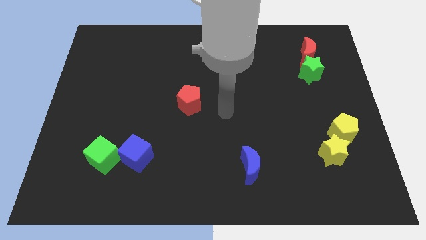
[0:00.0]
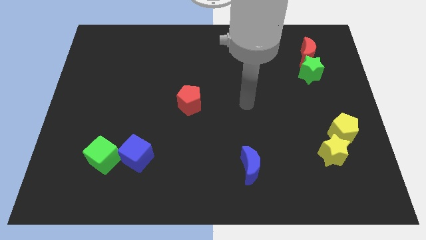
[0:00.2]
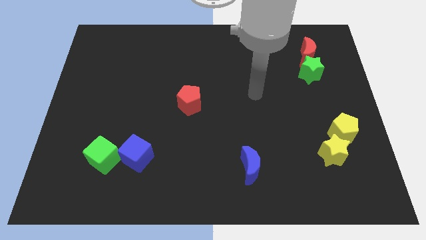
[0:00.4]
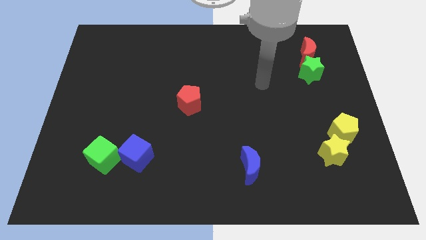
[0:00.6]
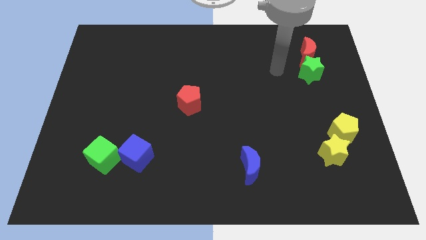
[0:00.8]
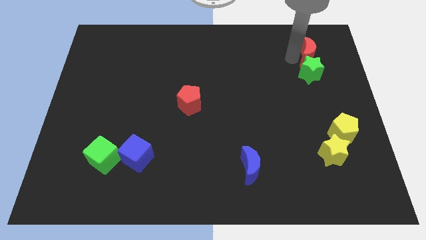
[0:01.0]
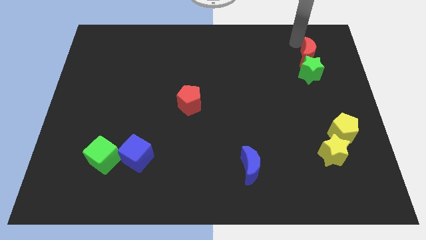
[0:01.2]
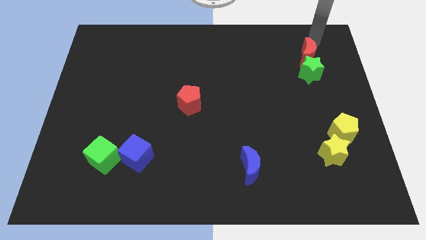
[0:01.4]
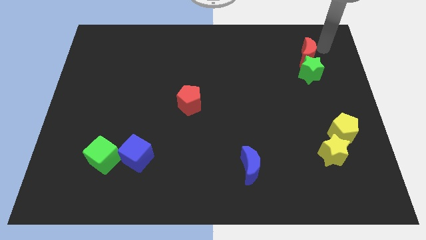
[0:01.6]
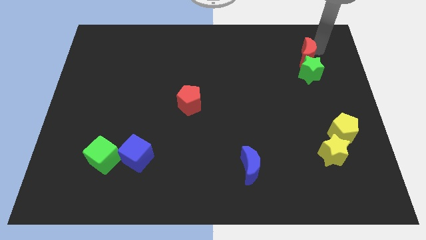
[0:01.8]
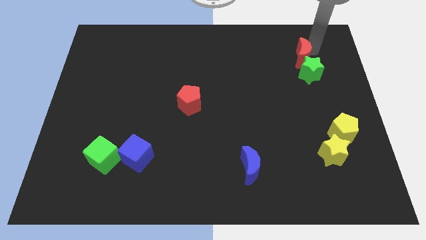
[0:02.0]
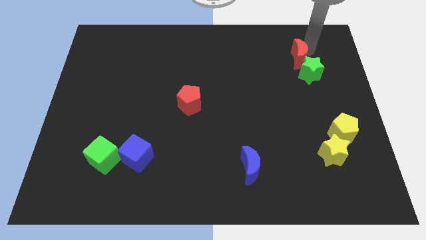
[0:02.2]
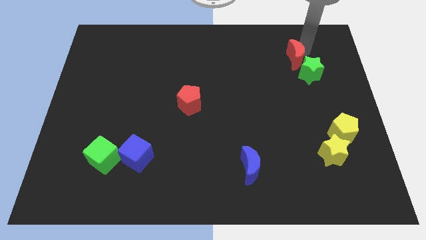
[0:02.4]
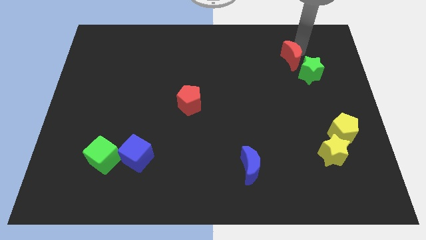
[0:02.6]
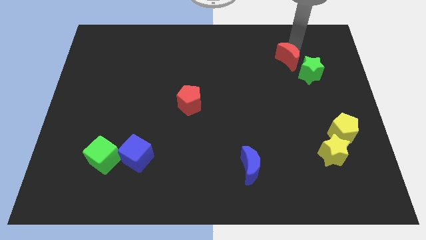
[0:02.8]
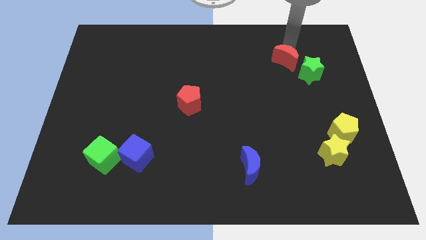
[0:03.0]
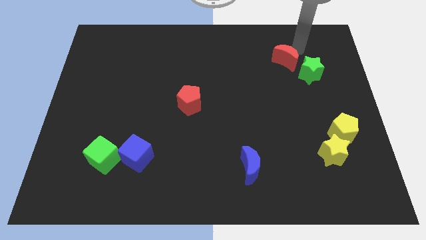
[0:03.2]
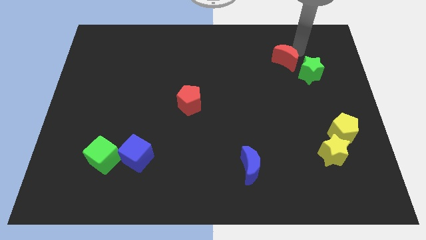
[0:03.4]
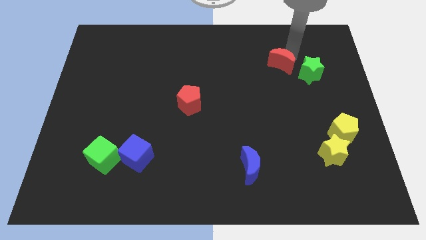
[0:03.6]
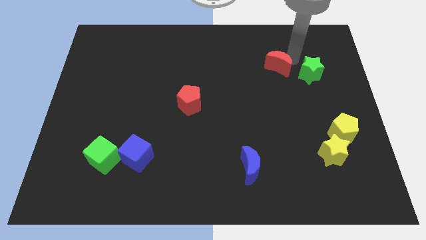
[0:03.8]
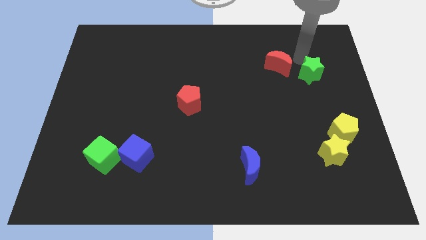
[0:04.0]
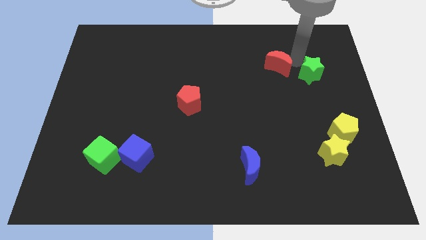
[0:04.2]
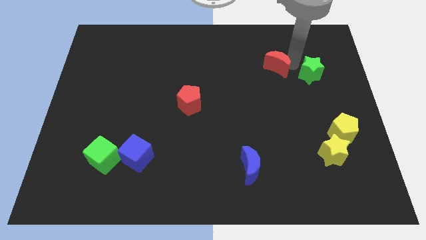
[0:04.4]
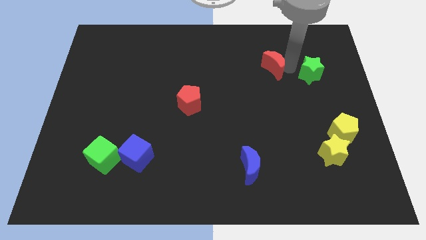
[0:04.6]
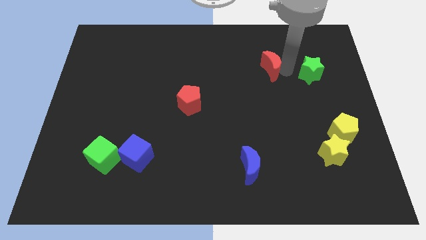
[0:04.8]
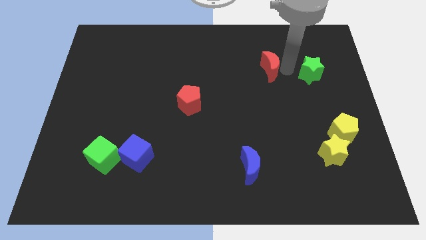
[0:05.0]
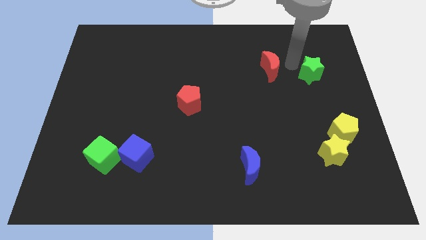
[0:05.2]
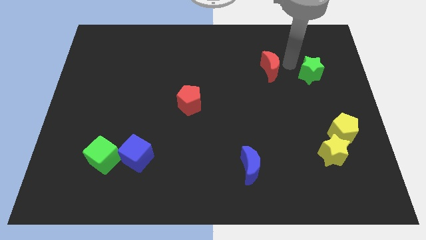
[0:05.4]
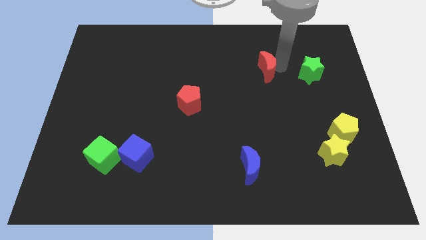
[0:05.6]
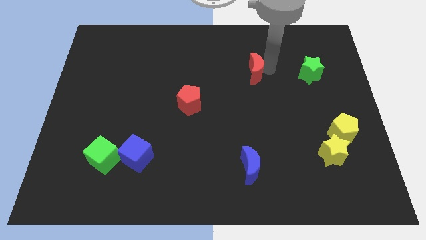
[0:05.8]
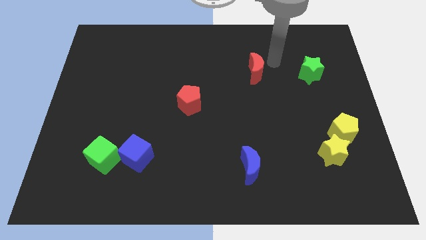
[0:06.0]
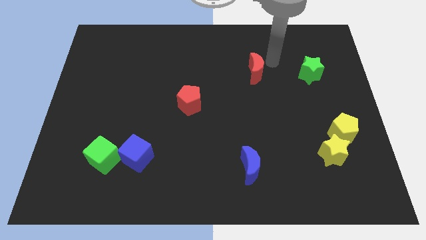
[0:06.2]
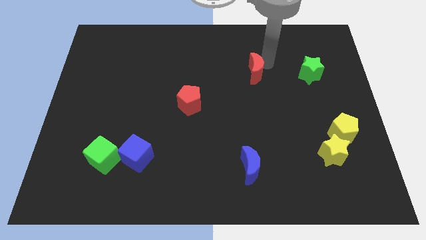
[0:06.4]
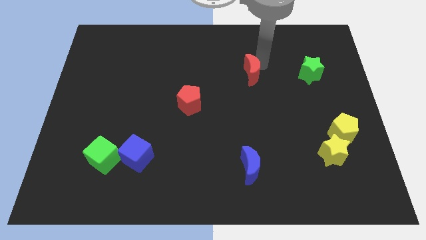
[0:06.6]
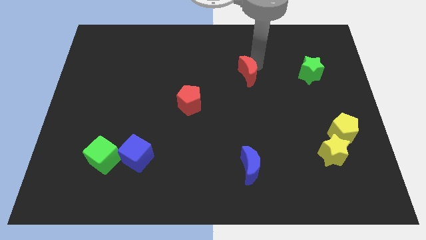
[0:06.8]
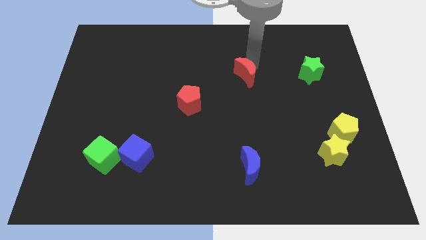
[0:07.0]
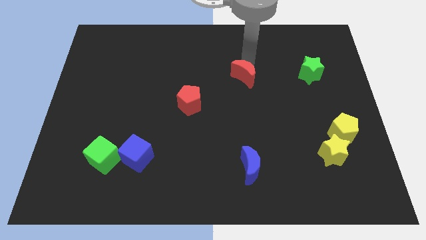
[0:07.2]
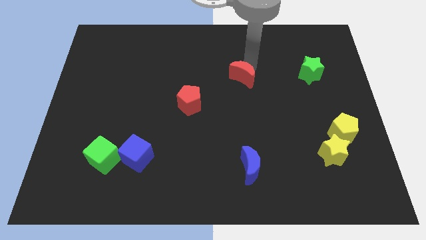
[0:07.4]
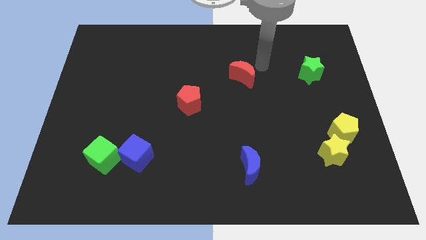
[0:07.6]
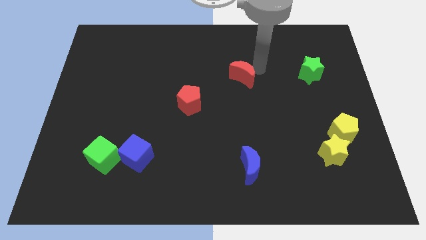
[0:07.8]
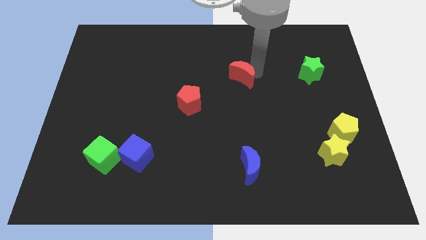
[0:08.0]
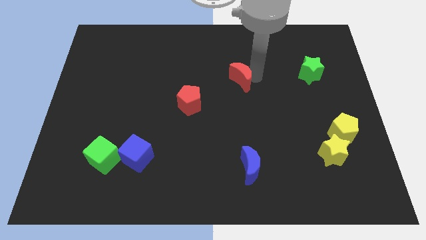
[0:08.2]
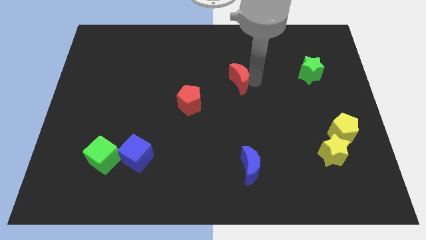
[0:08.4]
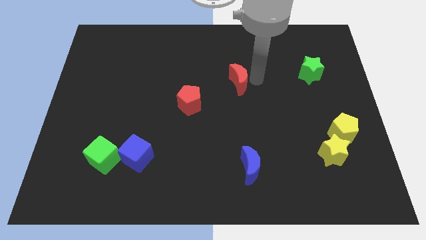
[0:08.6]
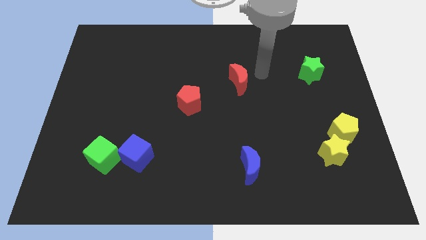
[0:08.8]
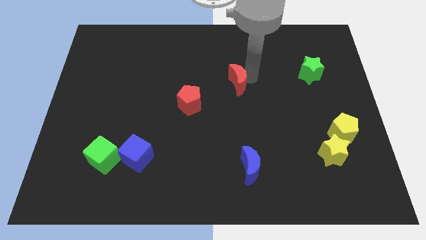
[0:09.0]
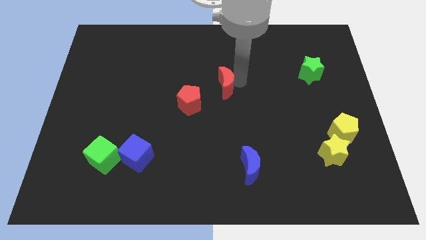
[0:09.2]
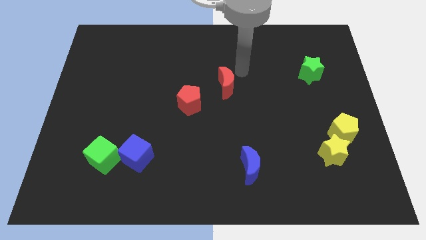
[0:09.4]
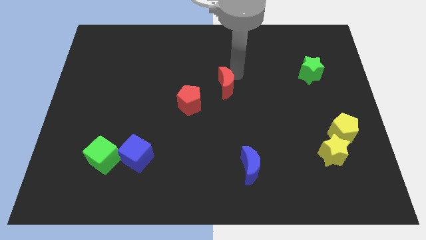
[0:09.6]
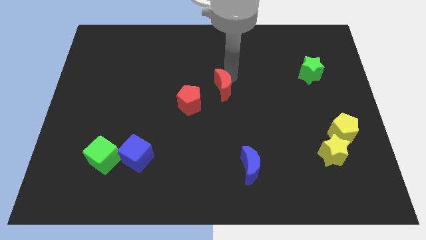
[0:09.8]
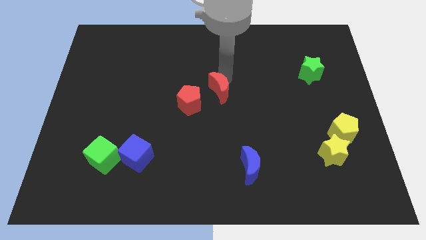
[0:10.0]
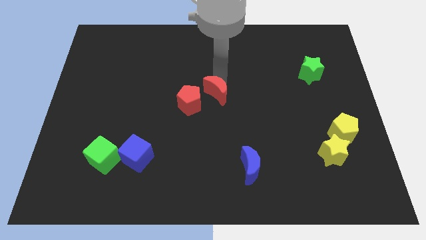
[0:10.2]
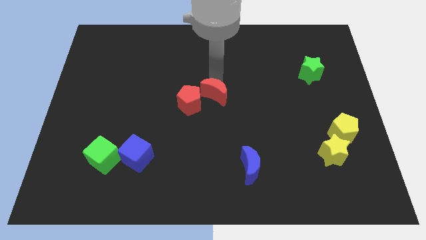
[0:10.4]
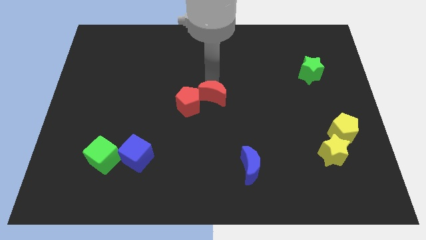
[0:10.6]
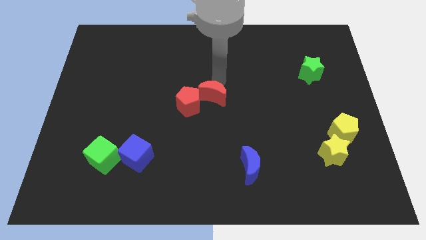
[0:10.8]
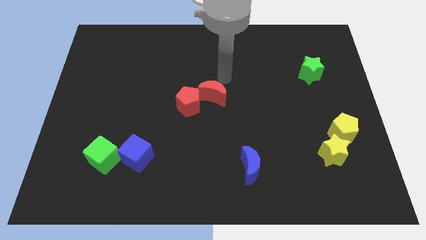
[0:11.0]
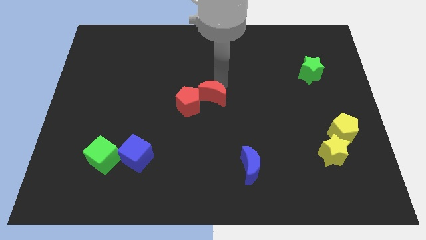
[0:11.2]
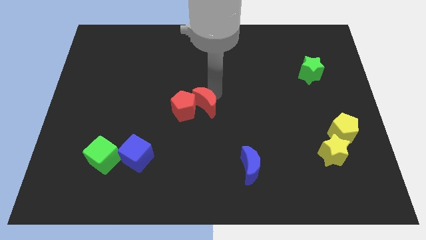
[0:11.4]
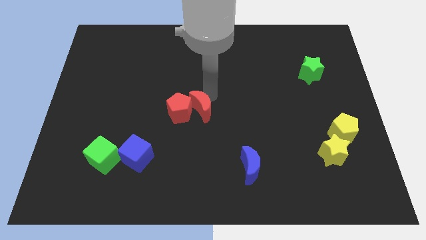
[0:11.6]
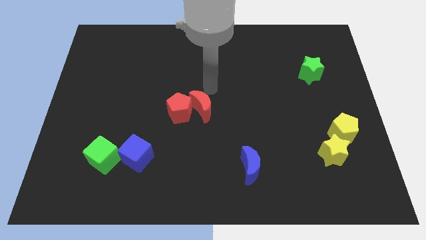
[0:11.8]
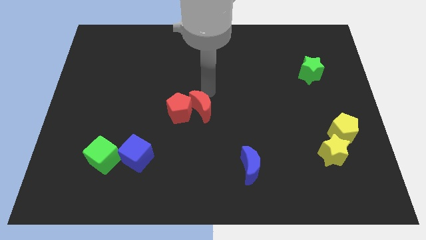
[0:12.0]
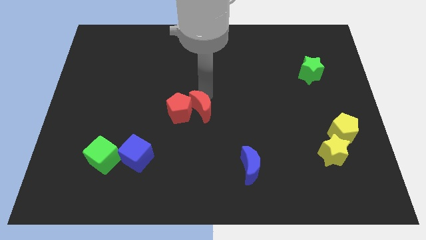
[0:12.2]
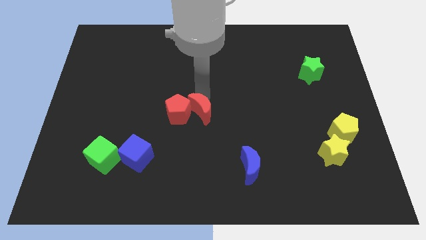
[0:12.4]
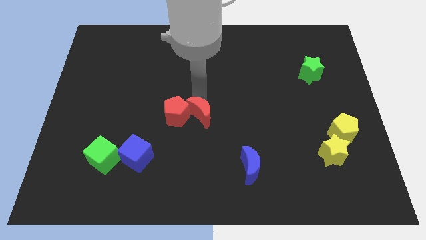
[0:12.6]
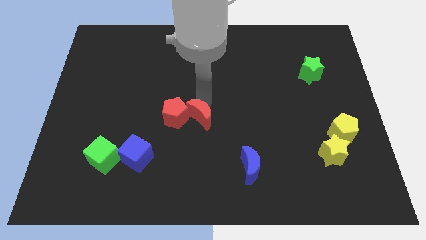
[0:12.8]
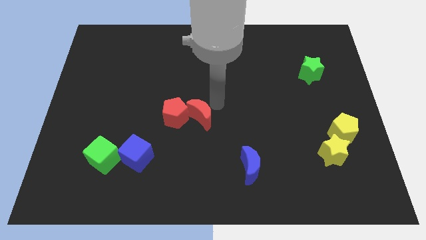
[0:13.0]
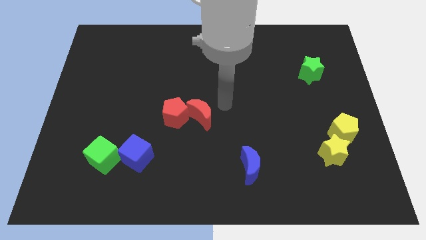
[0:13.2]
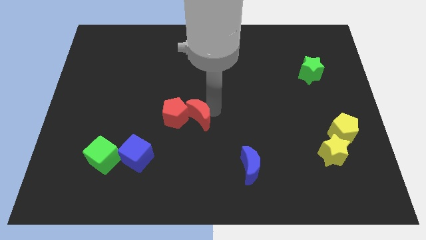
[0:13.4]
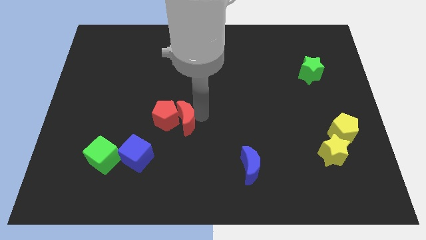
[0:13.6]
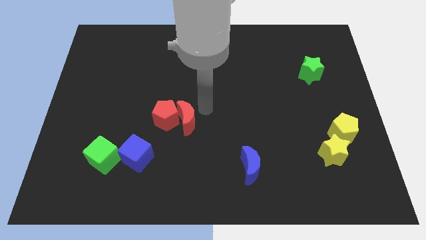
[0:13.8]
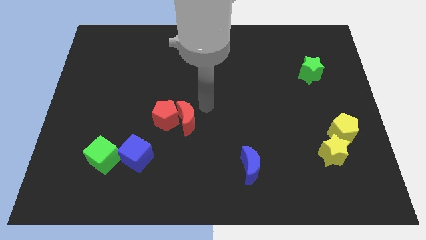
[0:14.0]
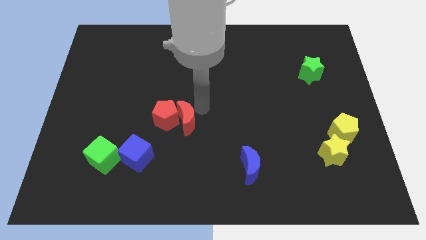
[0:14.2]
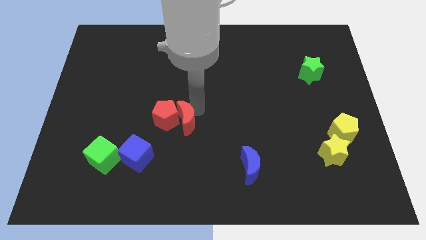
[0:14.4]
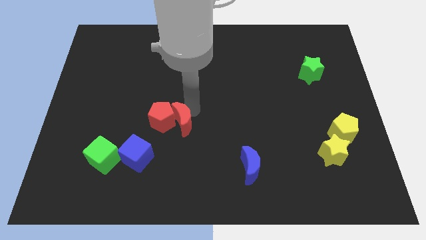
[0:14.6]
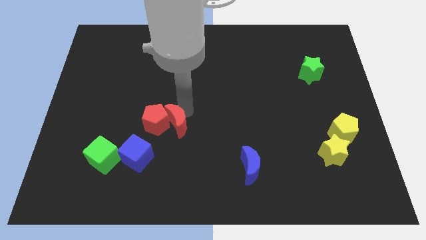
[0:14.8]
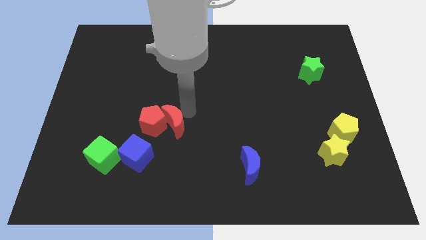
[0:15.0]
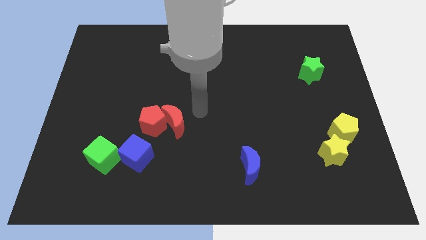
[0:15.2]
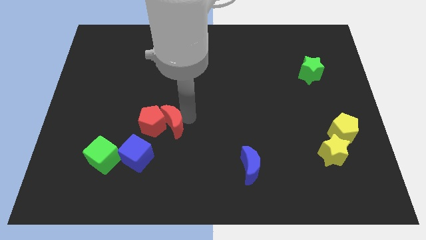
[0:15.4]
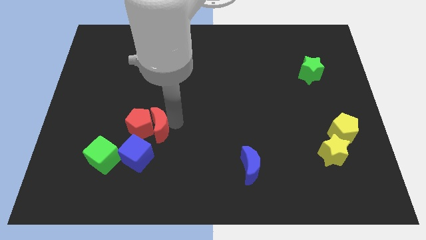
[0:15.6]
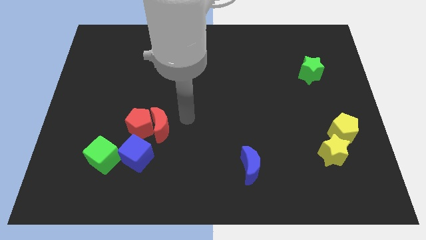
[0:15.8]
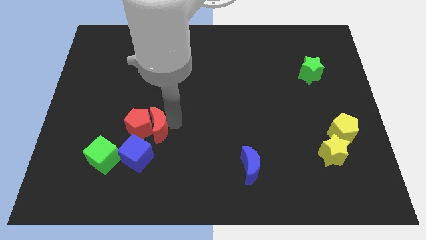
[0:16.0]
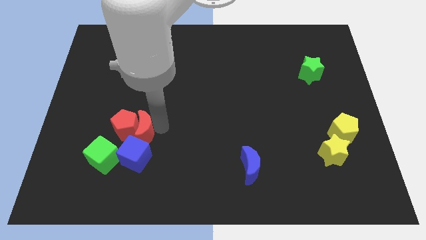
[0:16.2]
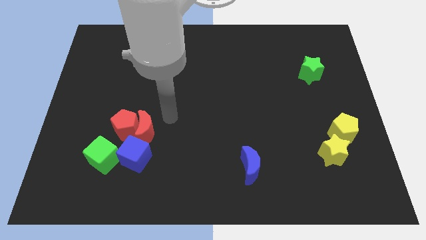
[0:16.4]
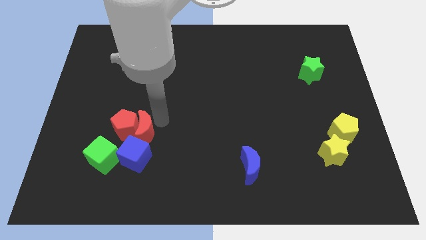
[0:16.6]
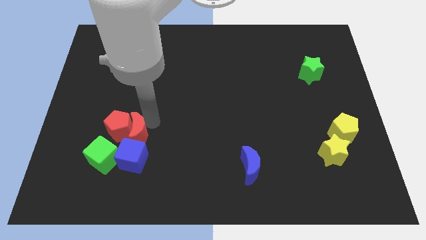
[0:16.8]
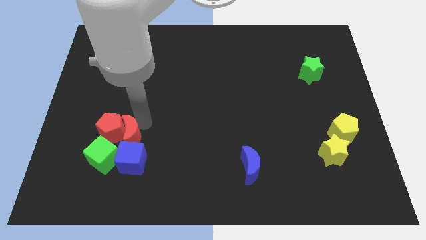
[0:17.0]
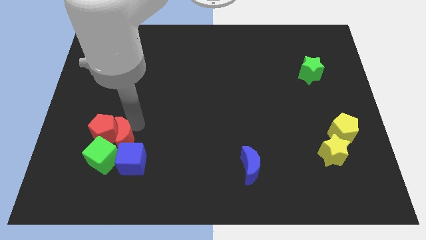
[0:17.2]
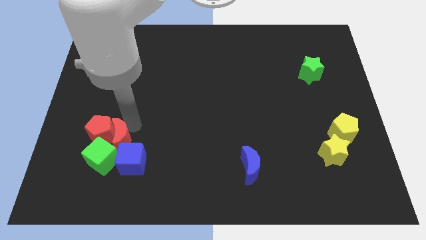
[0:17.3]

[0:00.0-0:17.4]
push the red moon close to the green cube
